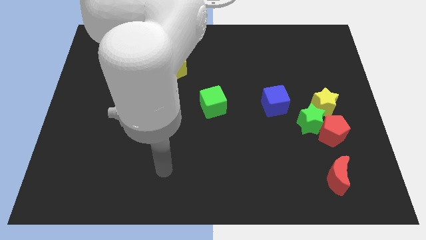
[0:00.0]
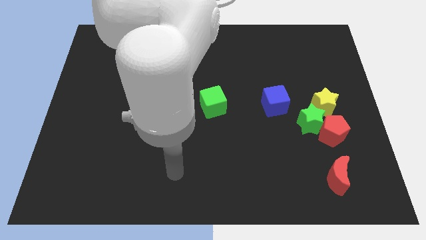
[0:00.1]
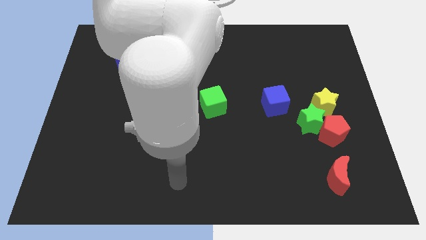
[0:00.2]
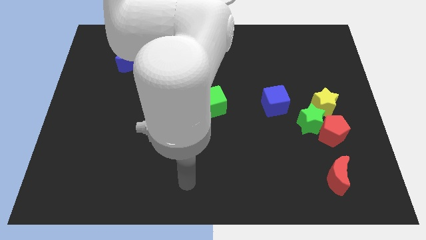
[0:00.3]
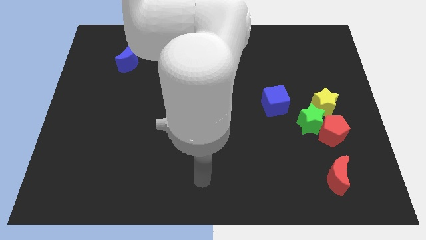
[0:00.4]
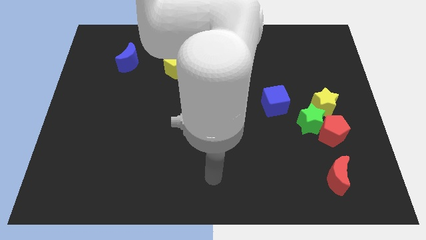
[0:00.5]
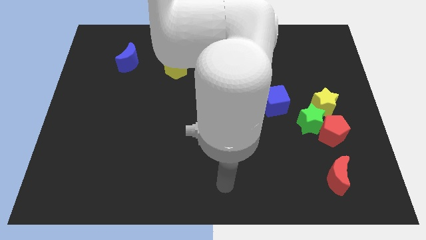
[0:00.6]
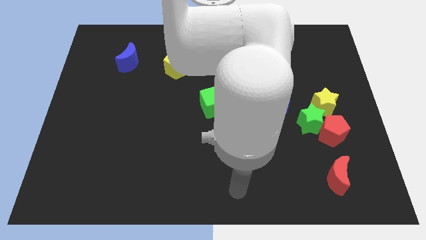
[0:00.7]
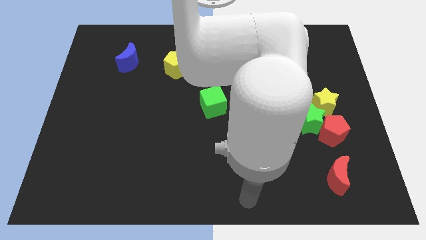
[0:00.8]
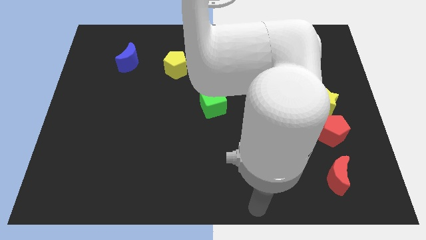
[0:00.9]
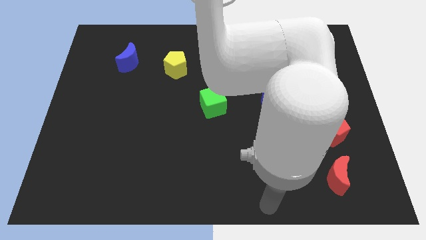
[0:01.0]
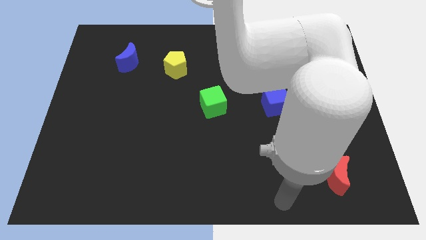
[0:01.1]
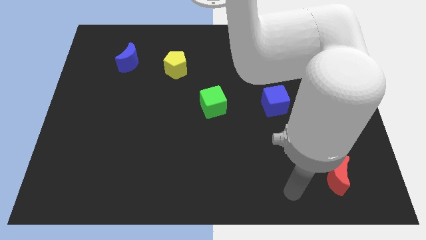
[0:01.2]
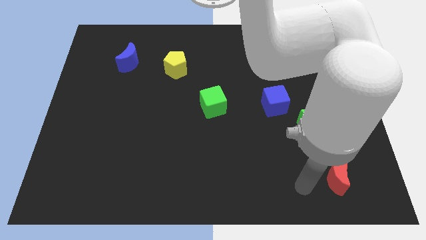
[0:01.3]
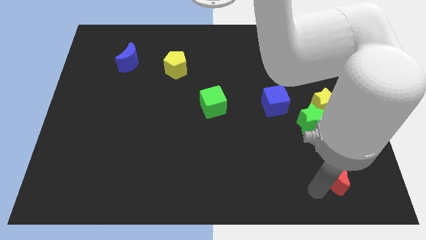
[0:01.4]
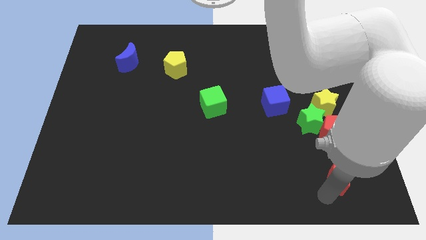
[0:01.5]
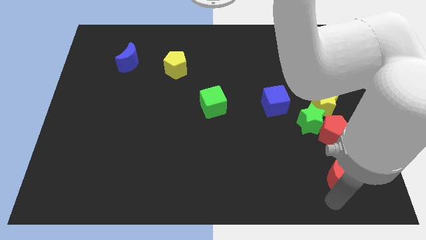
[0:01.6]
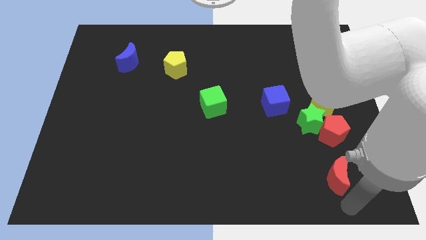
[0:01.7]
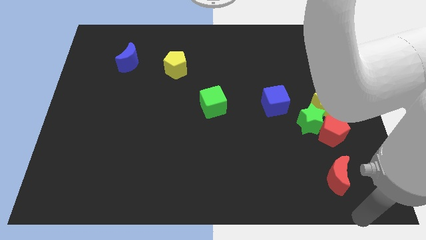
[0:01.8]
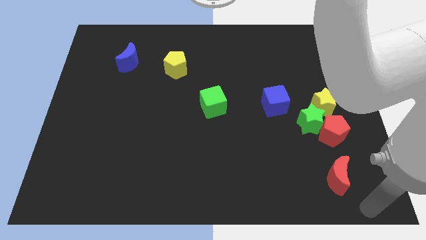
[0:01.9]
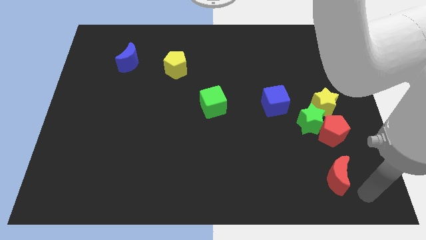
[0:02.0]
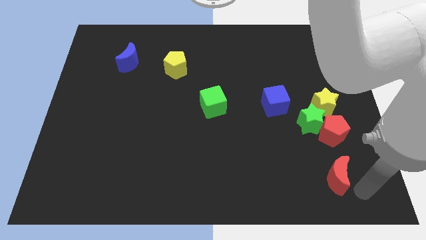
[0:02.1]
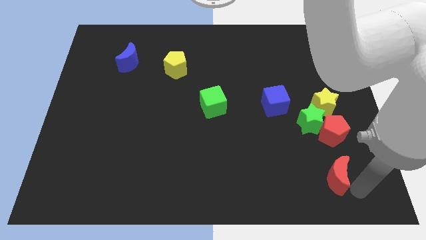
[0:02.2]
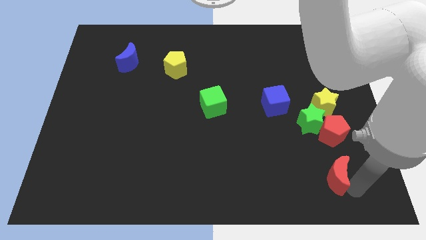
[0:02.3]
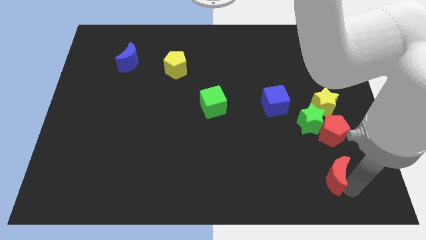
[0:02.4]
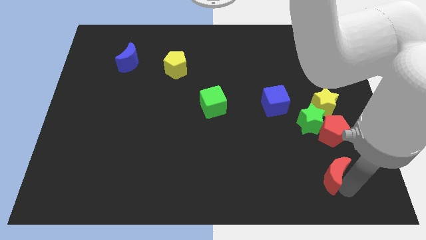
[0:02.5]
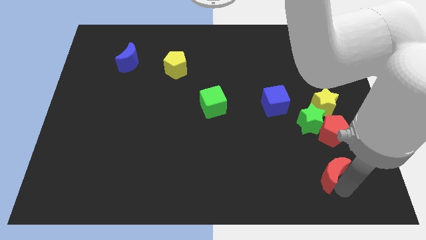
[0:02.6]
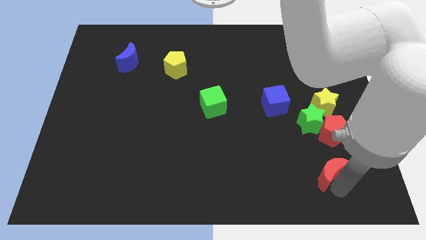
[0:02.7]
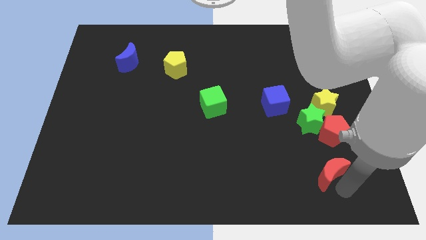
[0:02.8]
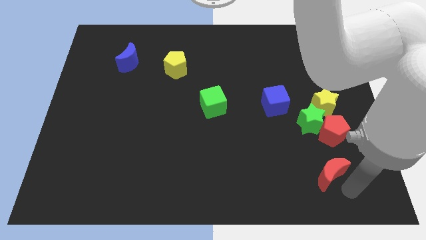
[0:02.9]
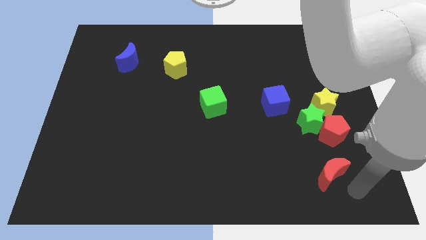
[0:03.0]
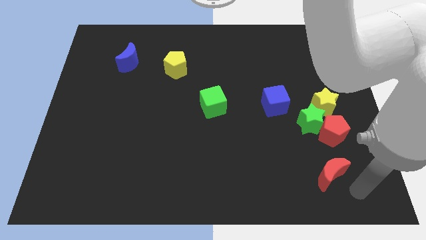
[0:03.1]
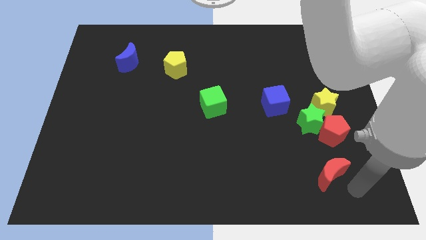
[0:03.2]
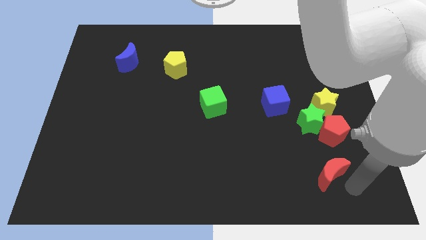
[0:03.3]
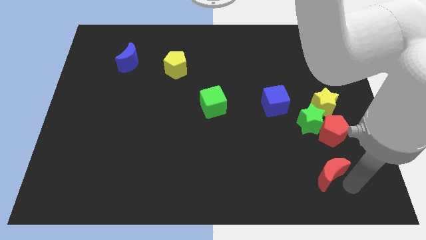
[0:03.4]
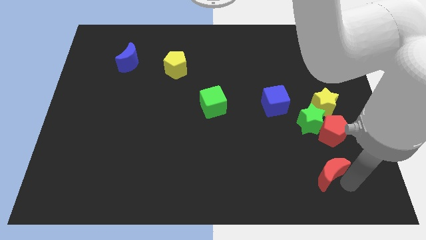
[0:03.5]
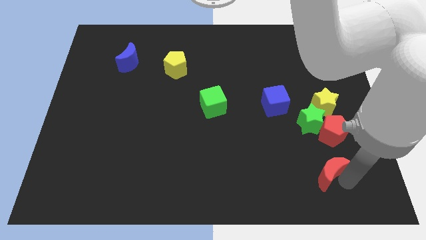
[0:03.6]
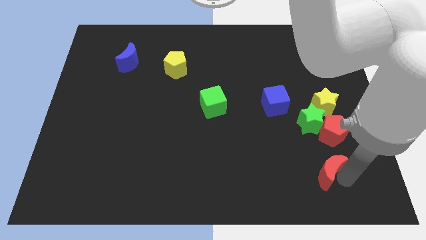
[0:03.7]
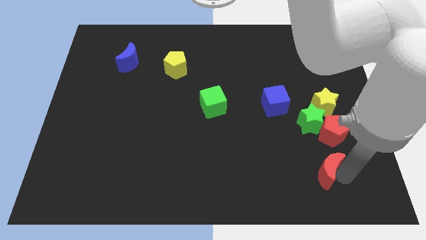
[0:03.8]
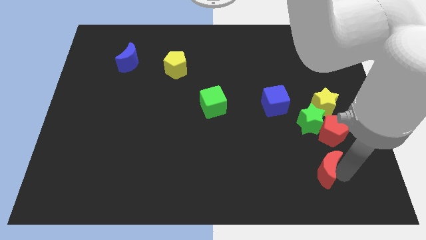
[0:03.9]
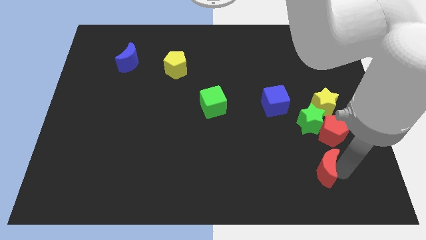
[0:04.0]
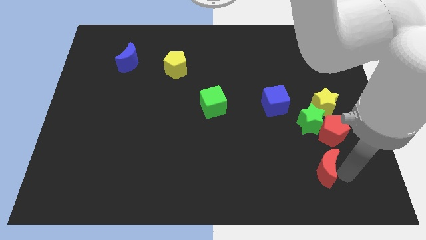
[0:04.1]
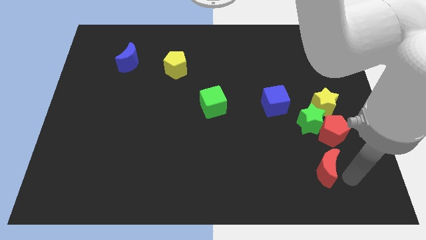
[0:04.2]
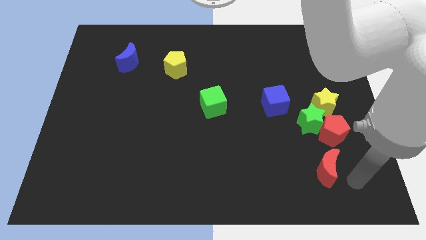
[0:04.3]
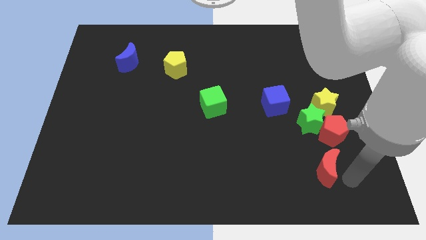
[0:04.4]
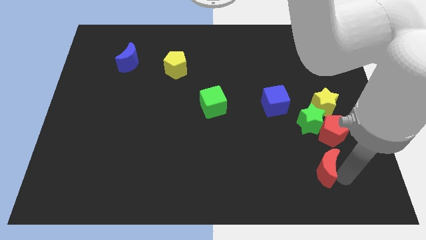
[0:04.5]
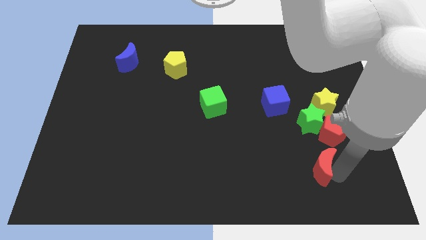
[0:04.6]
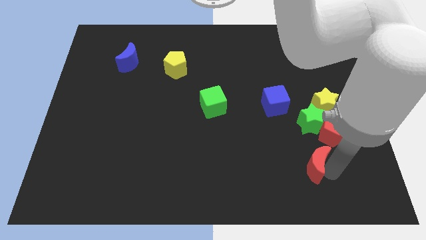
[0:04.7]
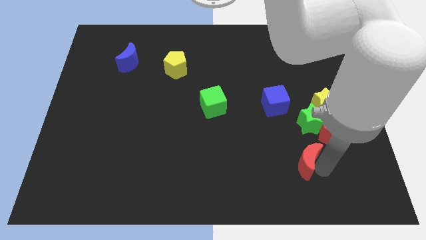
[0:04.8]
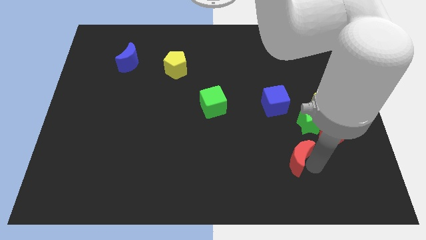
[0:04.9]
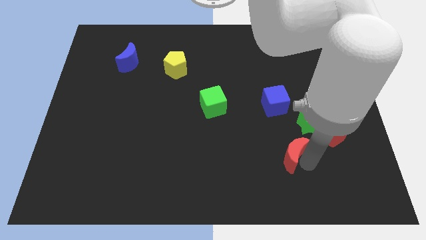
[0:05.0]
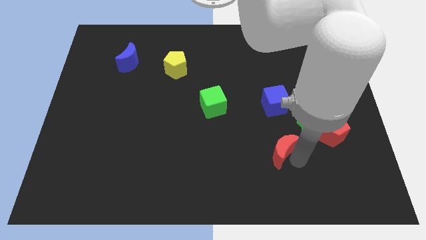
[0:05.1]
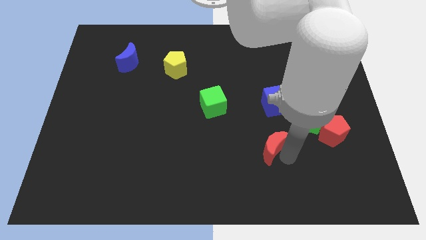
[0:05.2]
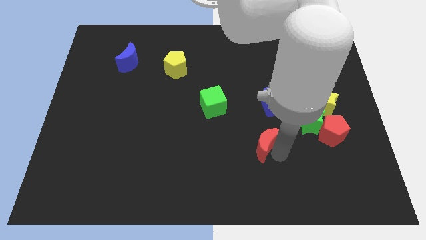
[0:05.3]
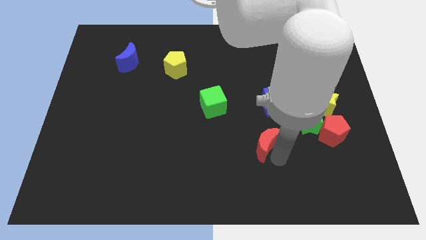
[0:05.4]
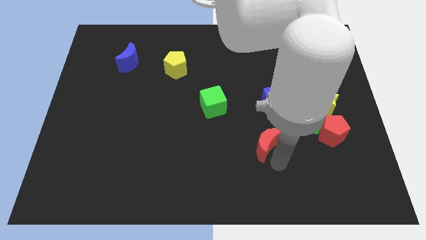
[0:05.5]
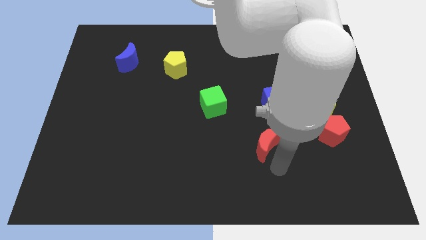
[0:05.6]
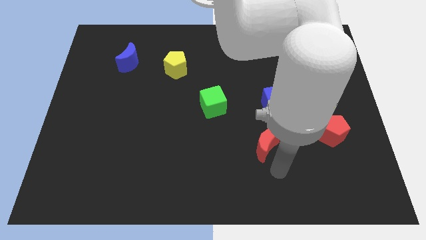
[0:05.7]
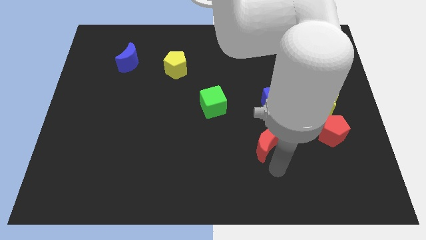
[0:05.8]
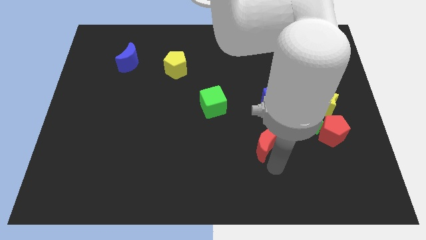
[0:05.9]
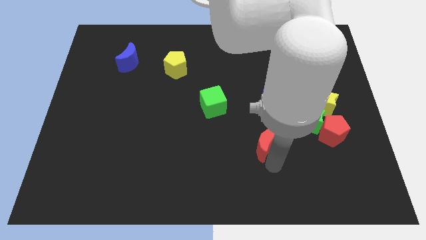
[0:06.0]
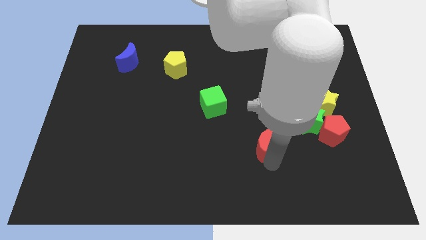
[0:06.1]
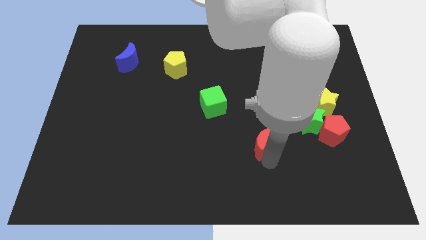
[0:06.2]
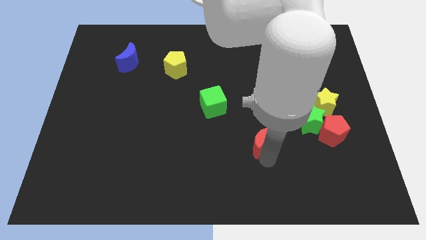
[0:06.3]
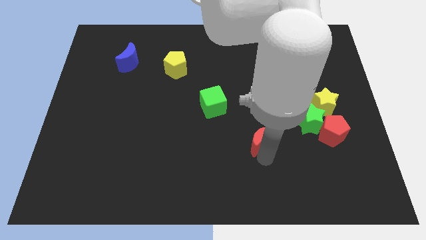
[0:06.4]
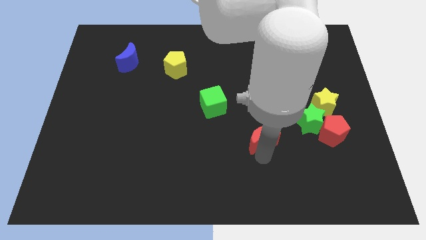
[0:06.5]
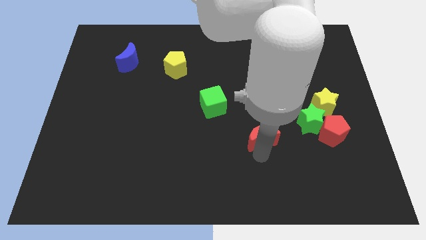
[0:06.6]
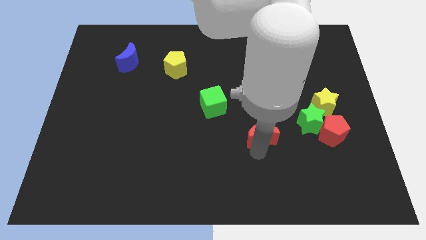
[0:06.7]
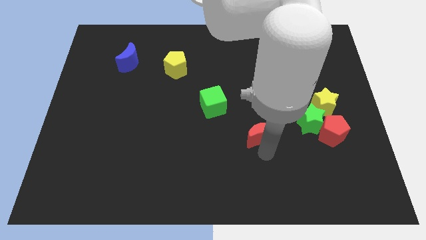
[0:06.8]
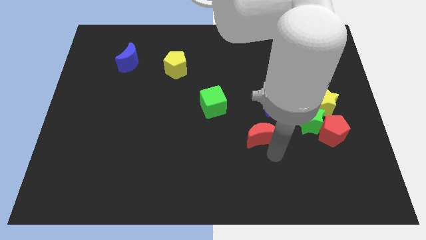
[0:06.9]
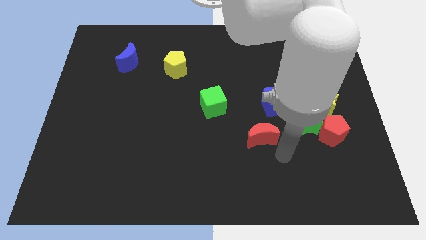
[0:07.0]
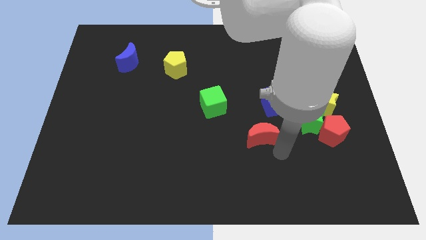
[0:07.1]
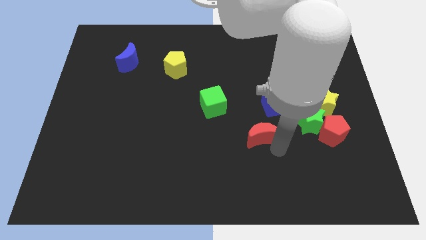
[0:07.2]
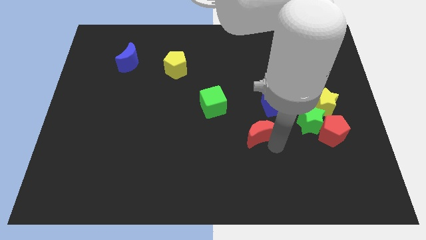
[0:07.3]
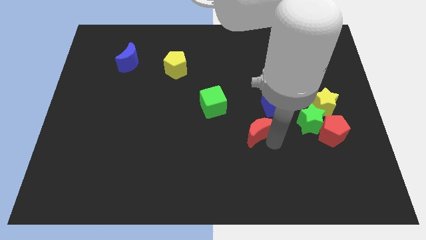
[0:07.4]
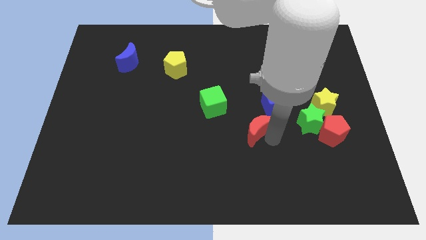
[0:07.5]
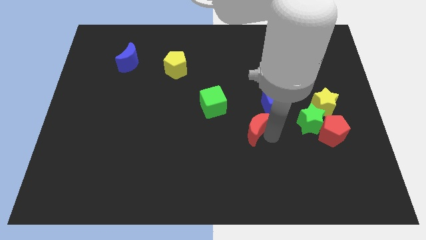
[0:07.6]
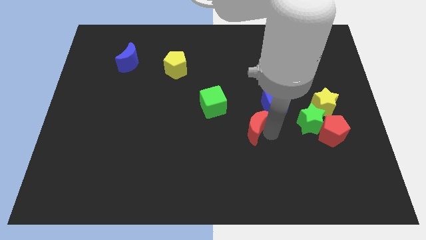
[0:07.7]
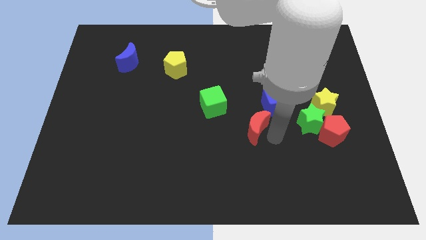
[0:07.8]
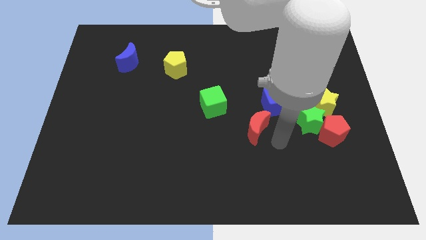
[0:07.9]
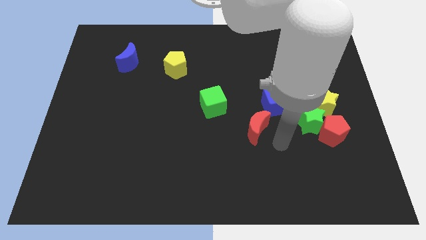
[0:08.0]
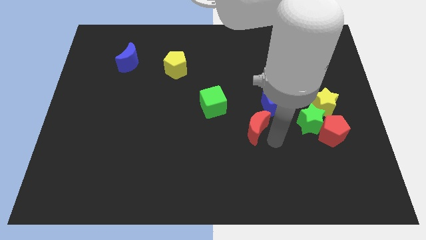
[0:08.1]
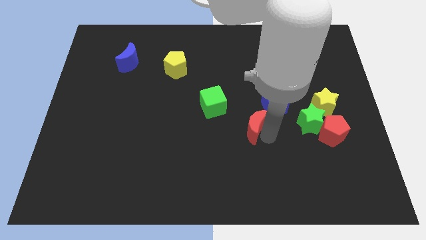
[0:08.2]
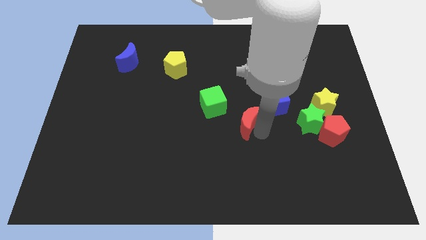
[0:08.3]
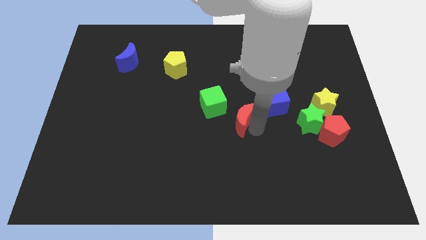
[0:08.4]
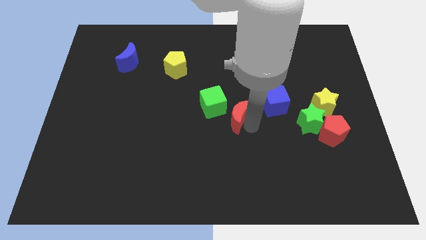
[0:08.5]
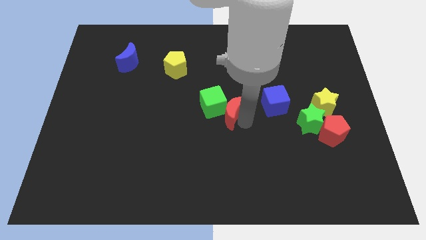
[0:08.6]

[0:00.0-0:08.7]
slide the red moon towards the green cube
